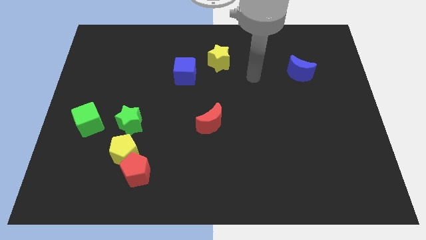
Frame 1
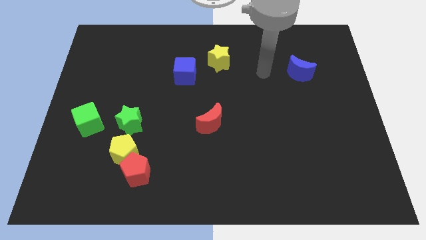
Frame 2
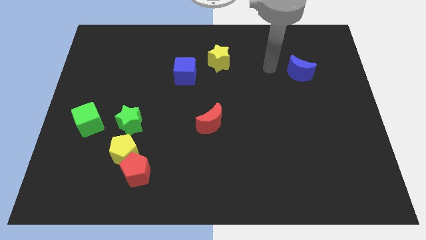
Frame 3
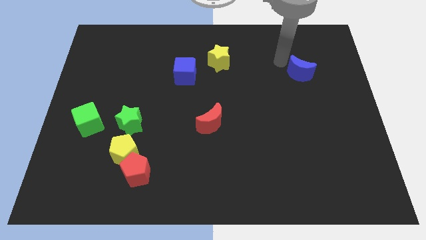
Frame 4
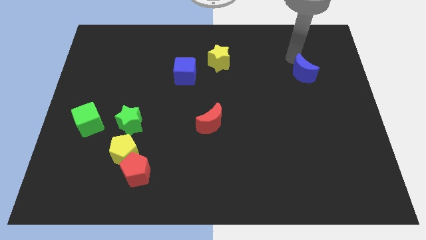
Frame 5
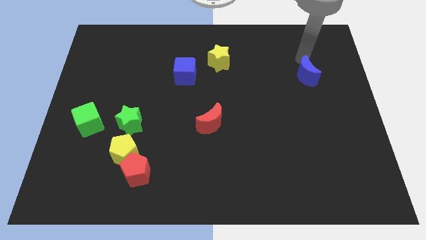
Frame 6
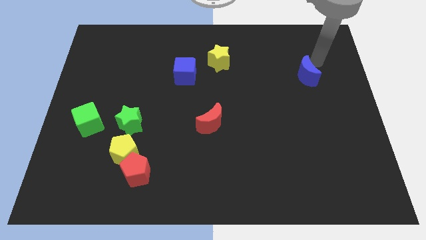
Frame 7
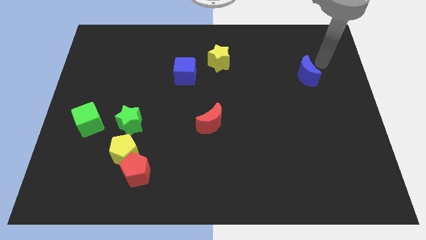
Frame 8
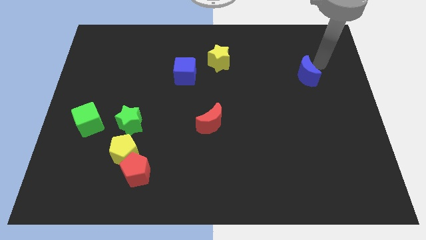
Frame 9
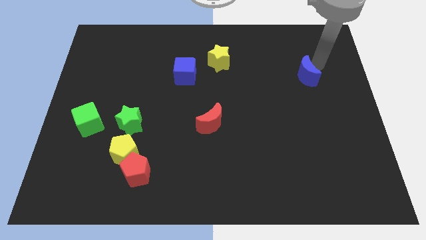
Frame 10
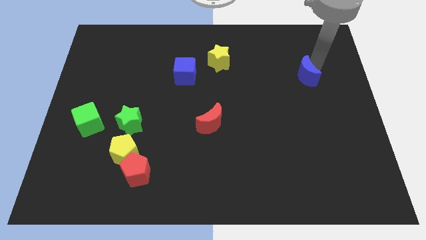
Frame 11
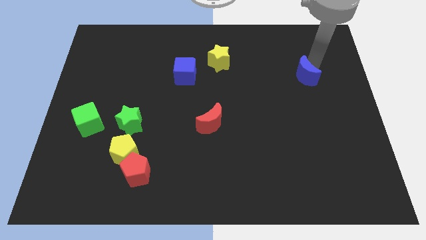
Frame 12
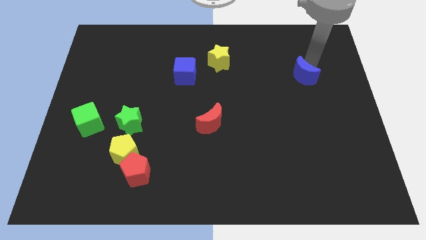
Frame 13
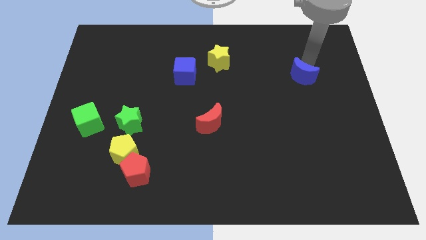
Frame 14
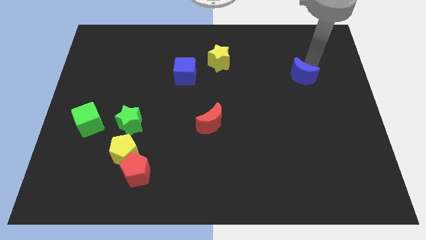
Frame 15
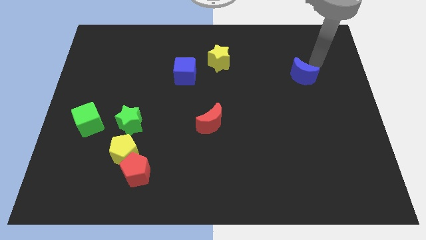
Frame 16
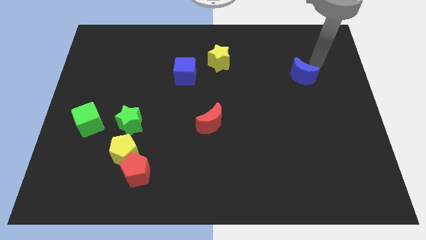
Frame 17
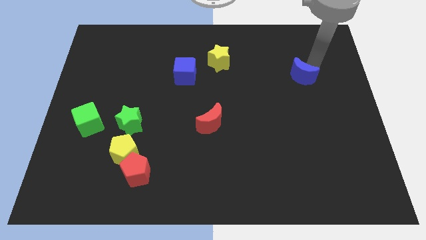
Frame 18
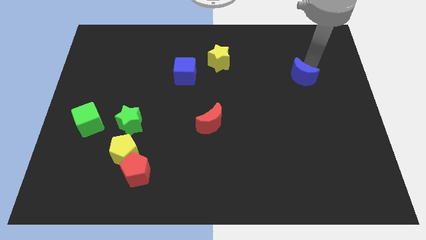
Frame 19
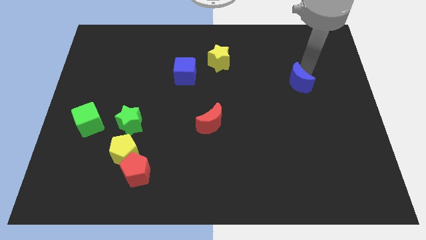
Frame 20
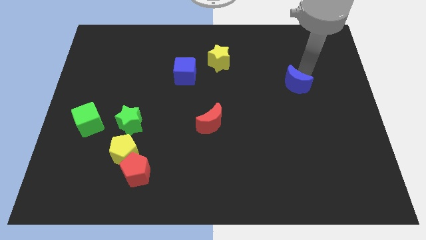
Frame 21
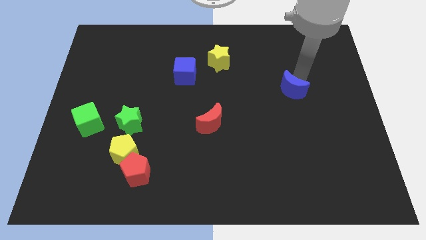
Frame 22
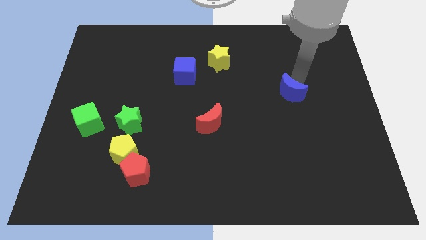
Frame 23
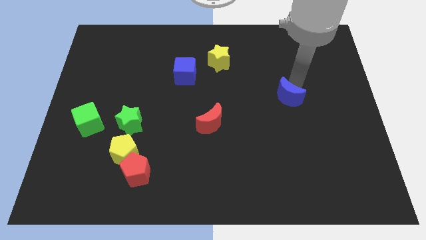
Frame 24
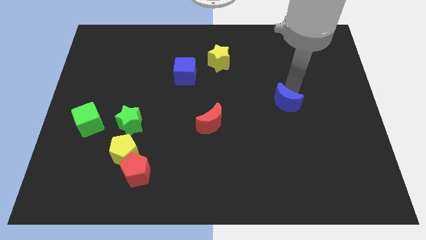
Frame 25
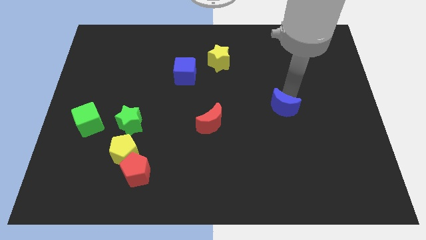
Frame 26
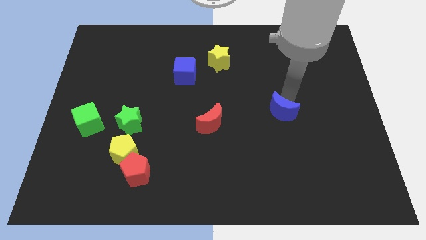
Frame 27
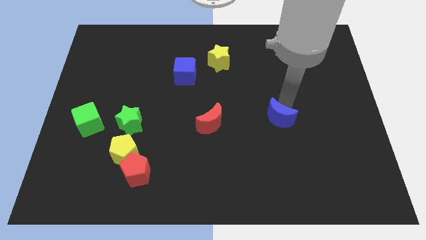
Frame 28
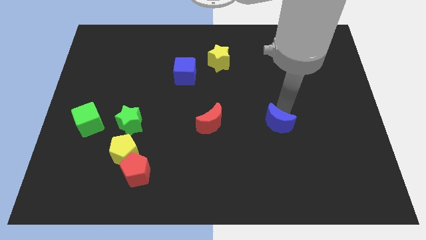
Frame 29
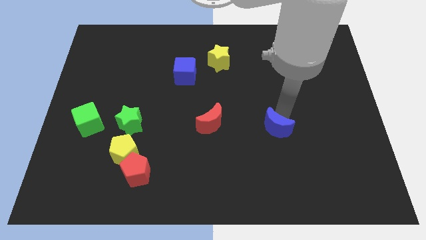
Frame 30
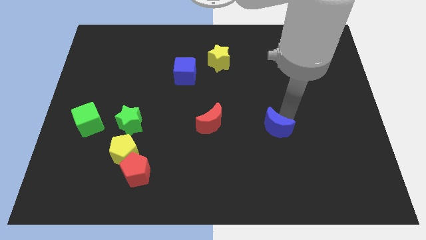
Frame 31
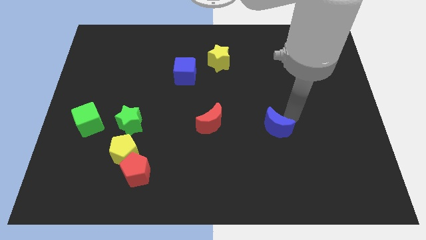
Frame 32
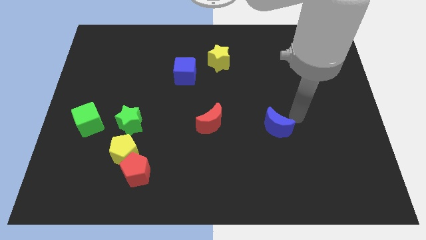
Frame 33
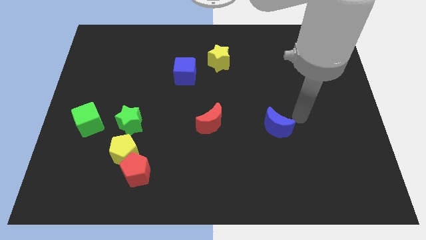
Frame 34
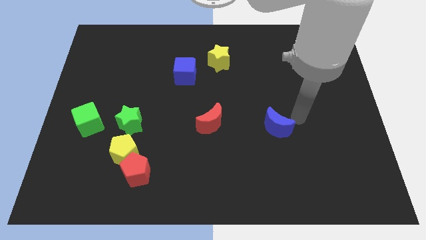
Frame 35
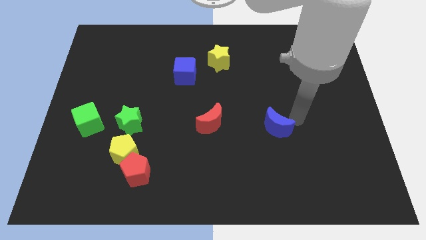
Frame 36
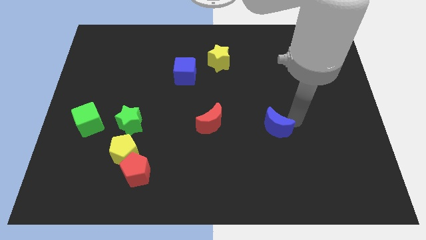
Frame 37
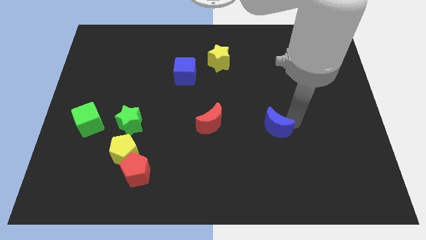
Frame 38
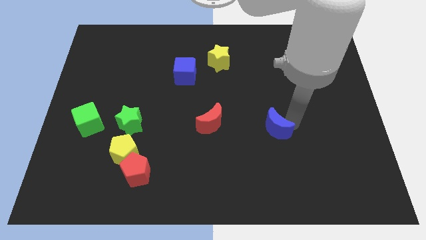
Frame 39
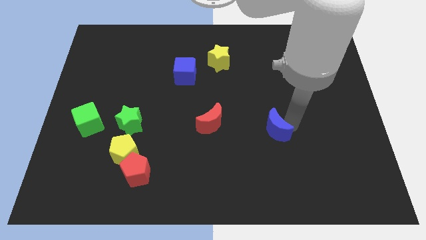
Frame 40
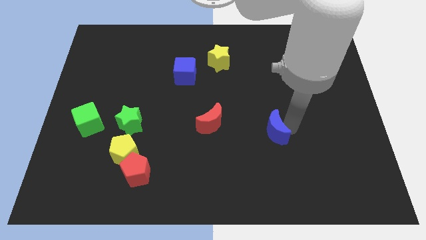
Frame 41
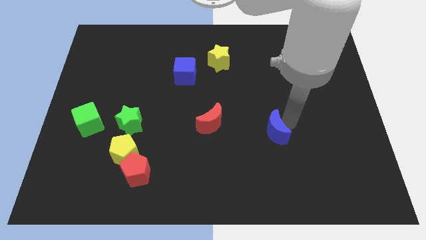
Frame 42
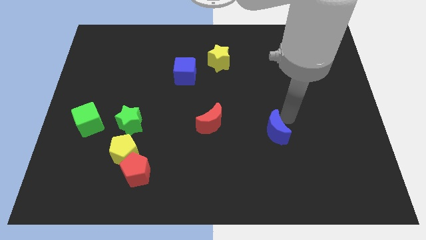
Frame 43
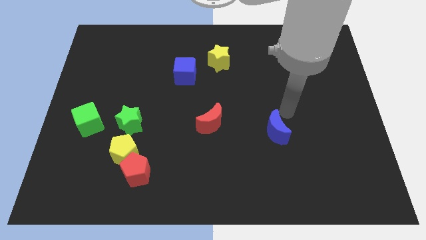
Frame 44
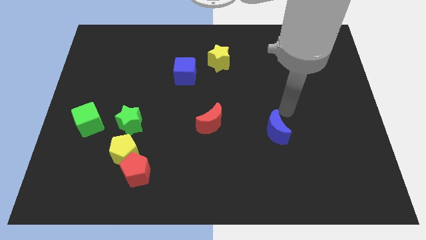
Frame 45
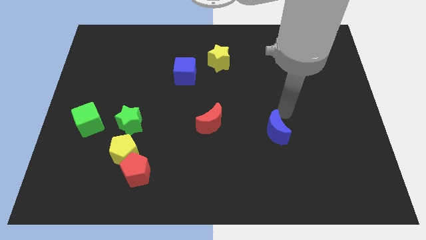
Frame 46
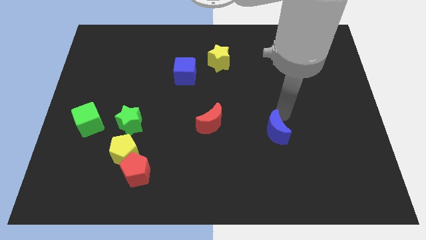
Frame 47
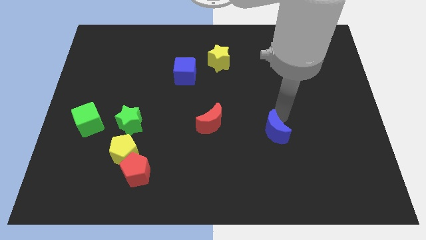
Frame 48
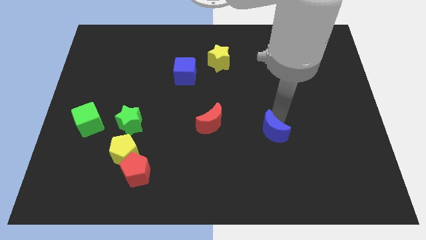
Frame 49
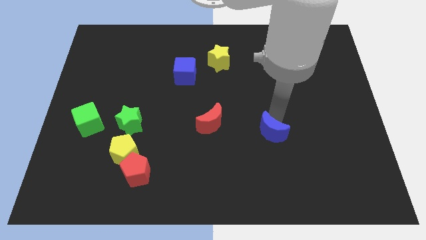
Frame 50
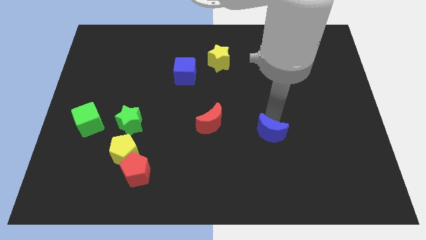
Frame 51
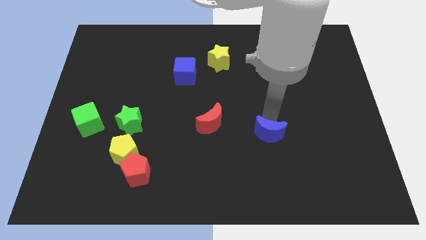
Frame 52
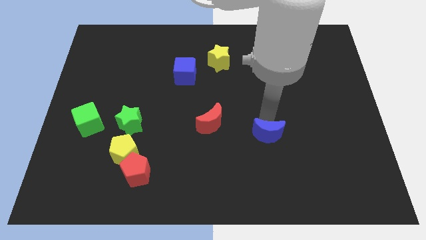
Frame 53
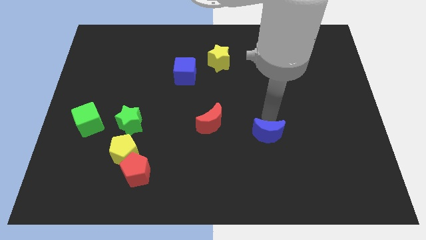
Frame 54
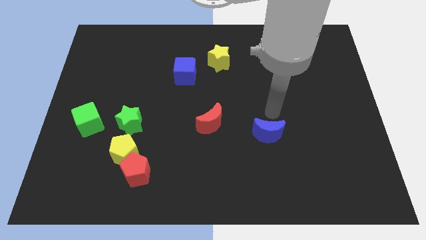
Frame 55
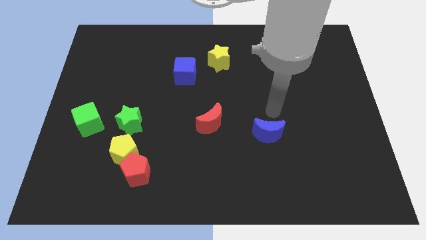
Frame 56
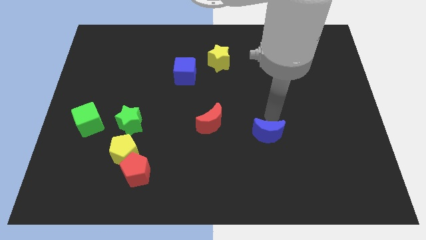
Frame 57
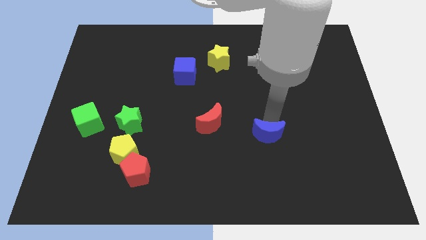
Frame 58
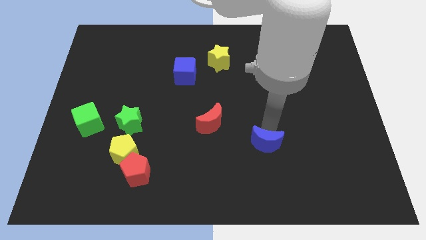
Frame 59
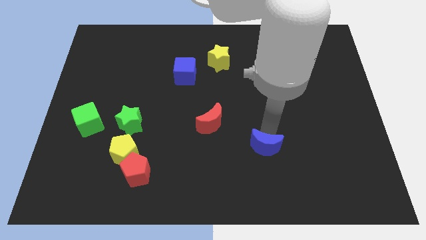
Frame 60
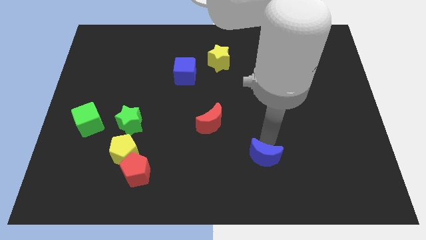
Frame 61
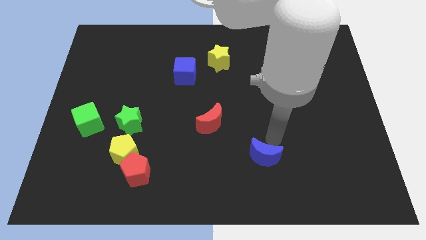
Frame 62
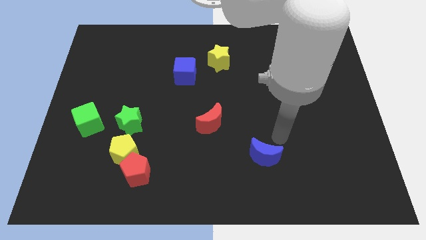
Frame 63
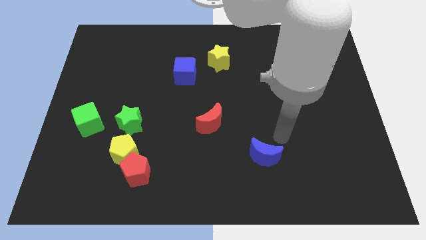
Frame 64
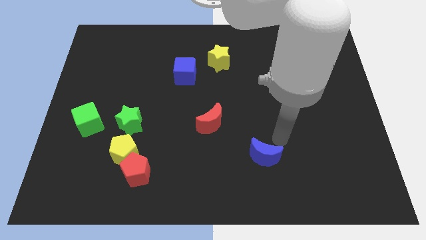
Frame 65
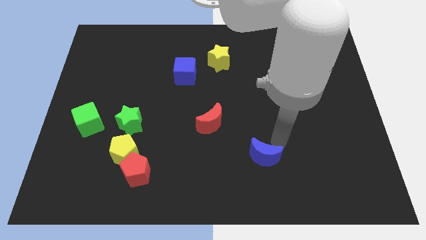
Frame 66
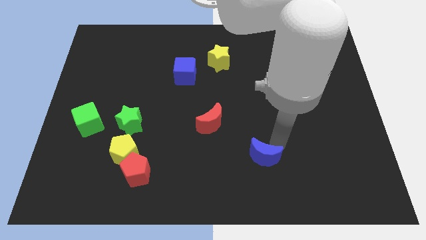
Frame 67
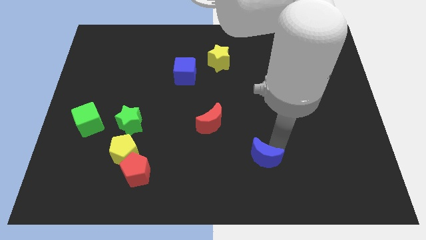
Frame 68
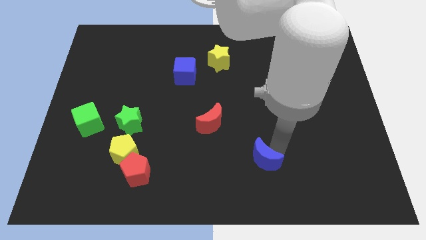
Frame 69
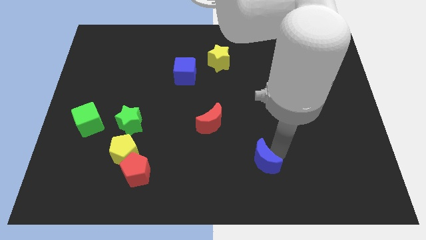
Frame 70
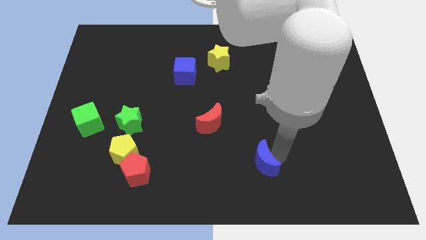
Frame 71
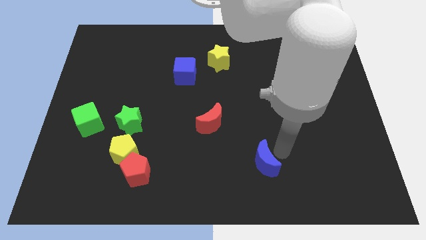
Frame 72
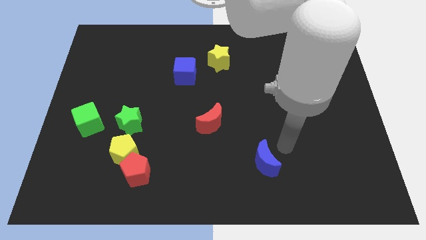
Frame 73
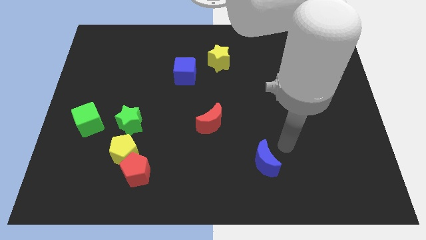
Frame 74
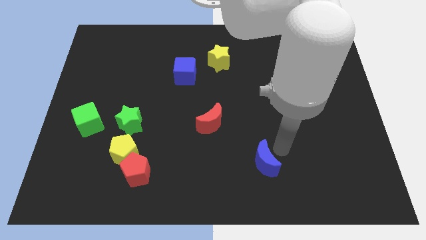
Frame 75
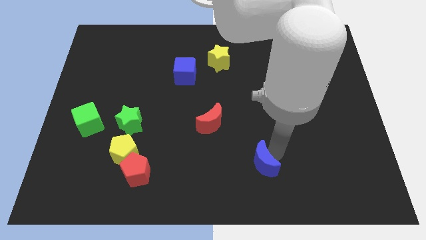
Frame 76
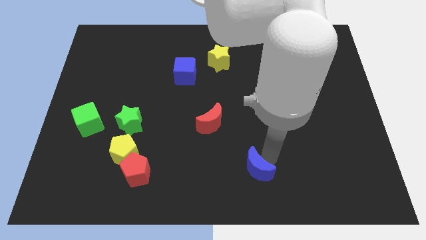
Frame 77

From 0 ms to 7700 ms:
put the blue moon to the bottom side
